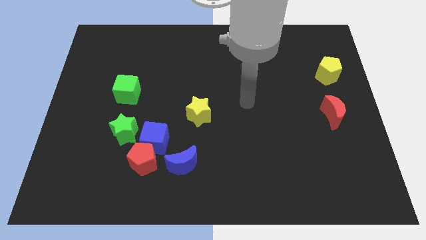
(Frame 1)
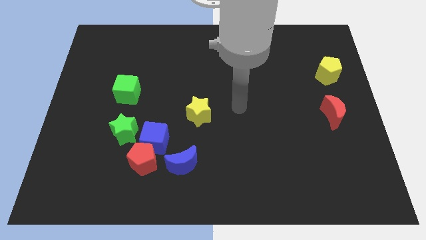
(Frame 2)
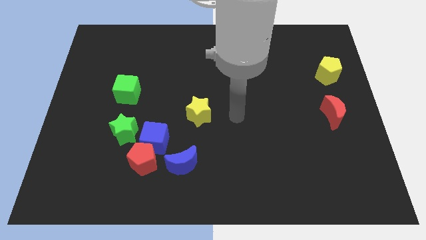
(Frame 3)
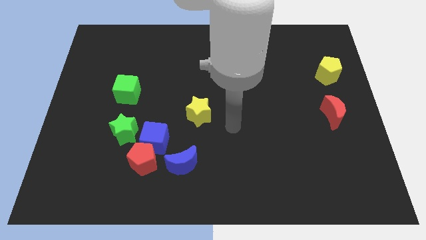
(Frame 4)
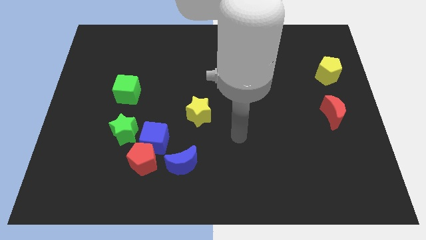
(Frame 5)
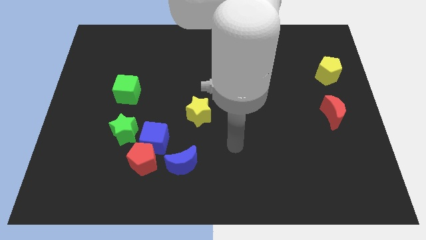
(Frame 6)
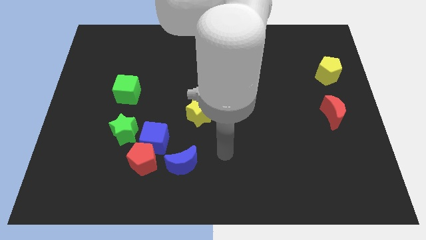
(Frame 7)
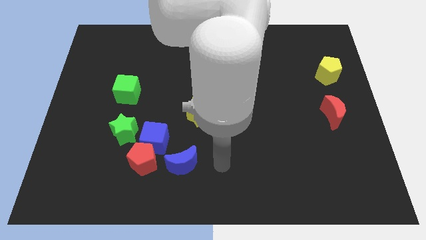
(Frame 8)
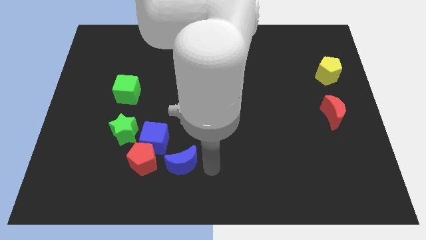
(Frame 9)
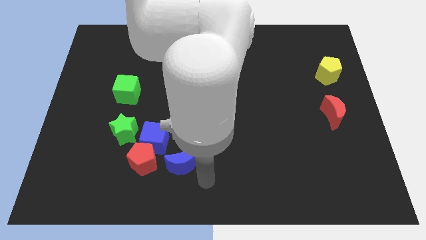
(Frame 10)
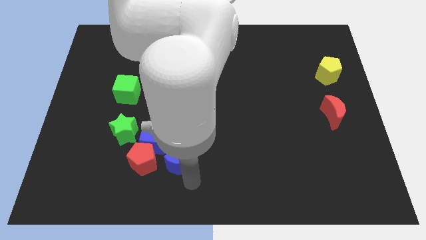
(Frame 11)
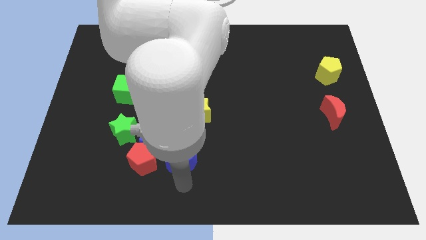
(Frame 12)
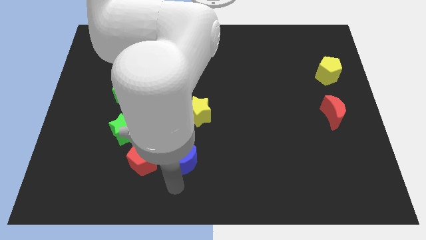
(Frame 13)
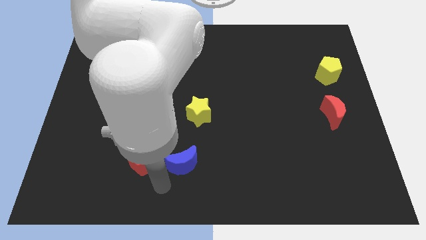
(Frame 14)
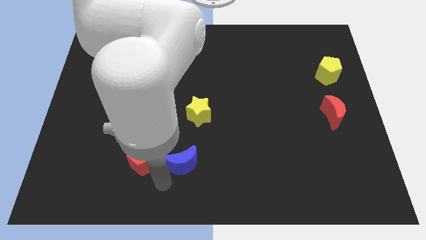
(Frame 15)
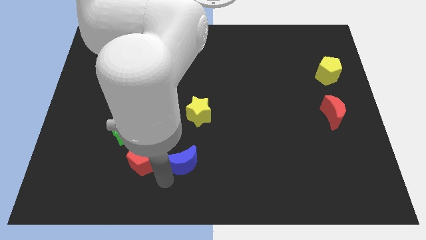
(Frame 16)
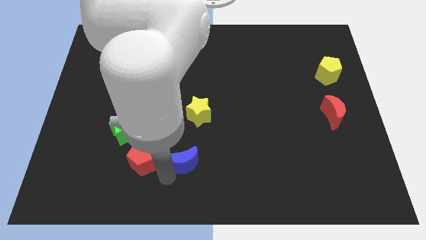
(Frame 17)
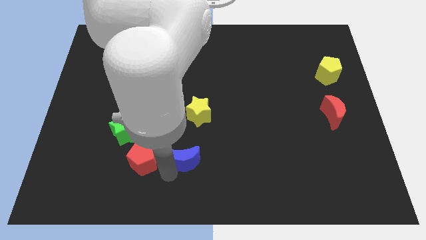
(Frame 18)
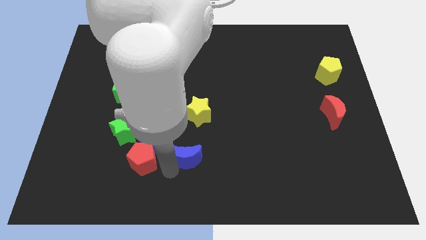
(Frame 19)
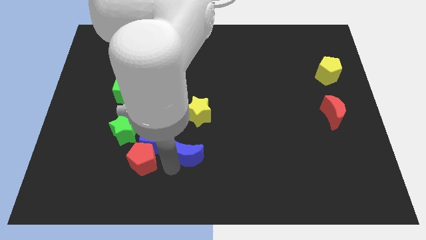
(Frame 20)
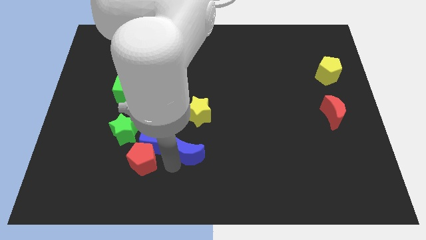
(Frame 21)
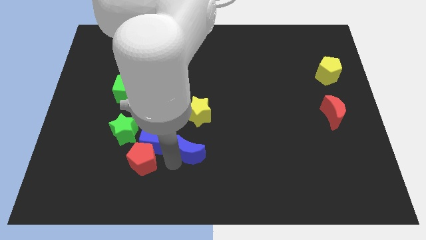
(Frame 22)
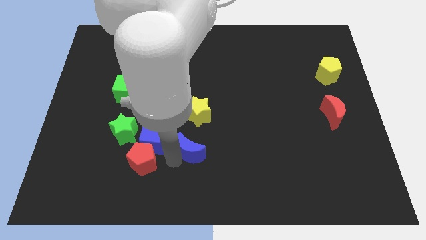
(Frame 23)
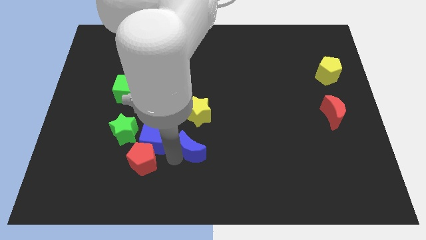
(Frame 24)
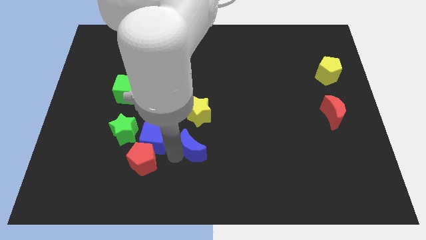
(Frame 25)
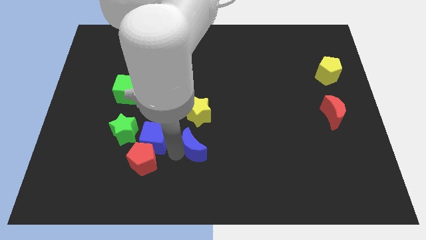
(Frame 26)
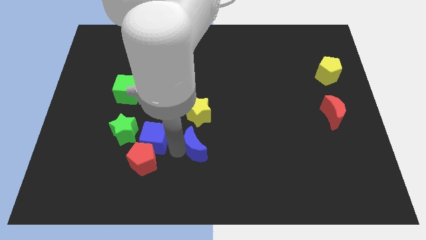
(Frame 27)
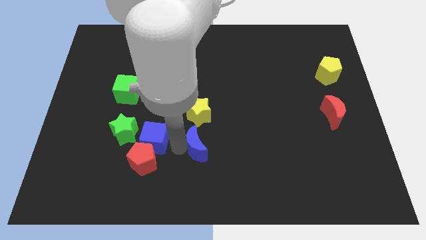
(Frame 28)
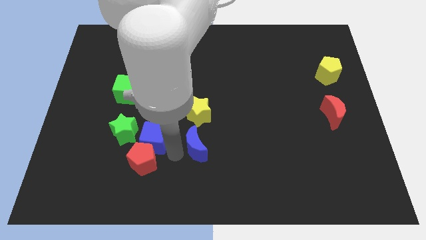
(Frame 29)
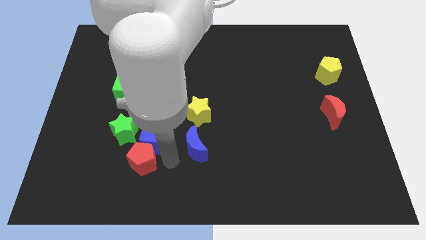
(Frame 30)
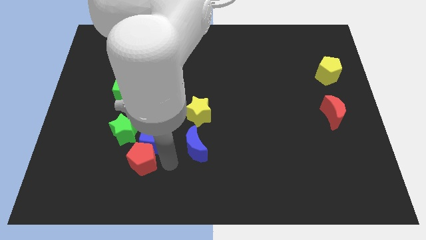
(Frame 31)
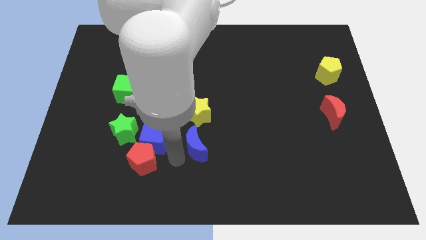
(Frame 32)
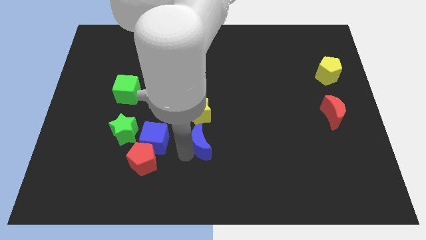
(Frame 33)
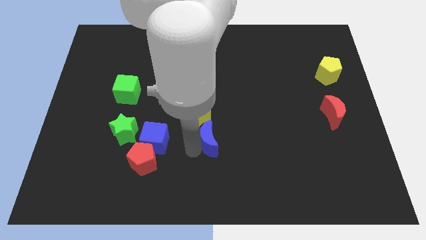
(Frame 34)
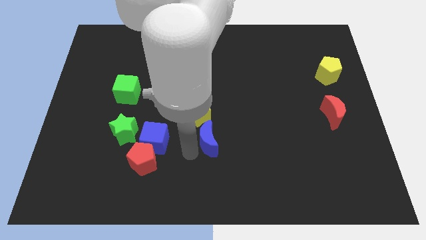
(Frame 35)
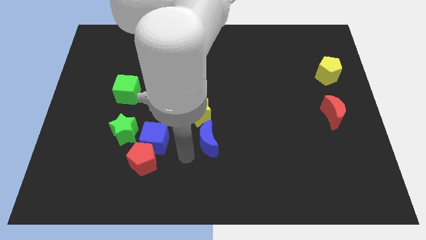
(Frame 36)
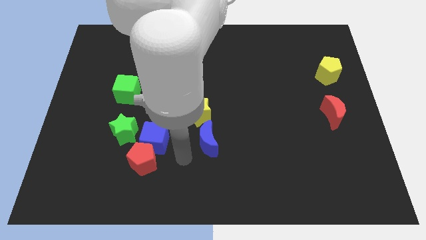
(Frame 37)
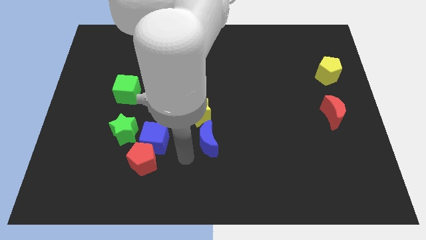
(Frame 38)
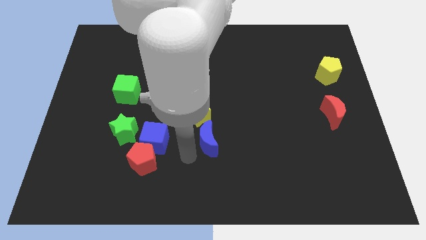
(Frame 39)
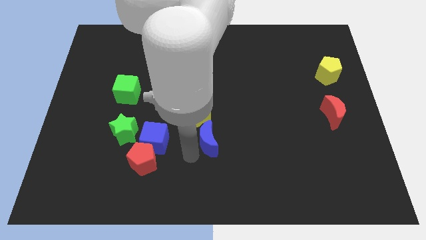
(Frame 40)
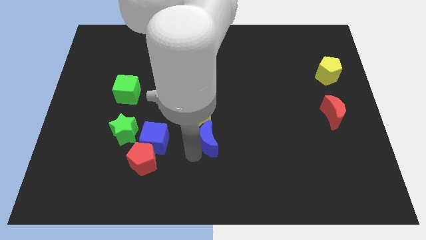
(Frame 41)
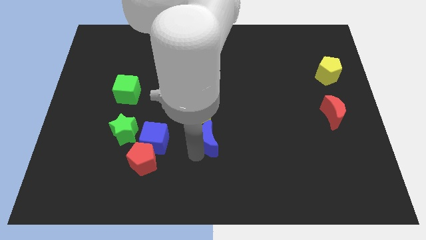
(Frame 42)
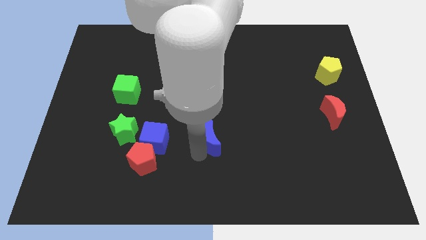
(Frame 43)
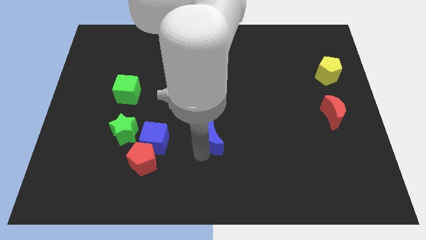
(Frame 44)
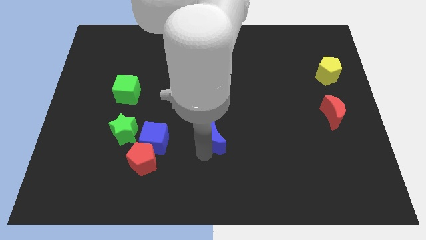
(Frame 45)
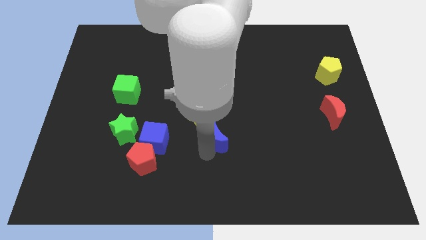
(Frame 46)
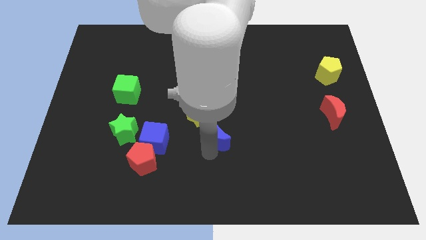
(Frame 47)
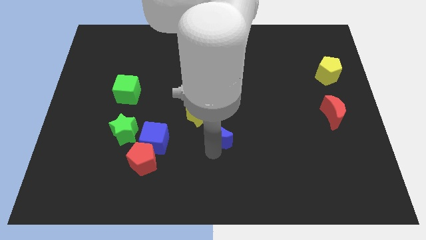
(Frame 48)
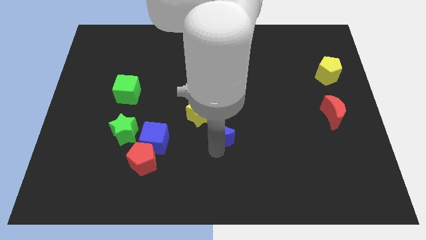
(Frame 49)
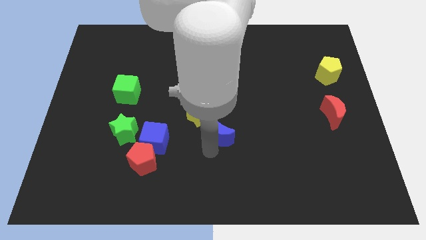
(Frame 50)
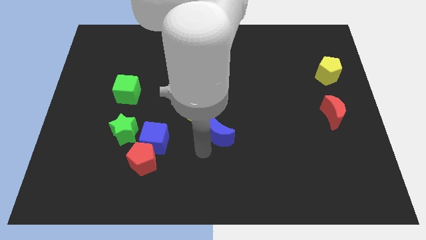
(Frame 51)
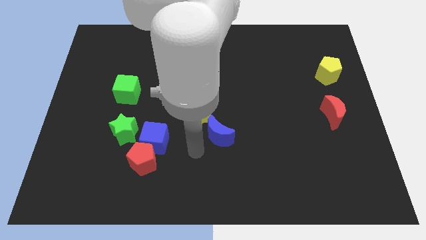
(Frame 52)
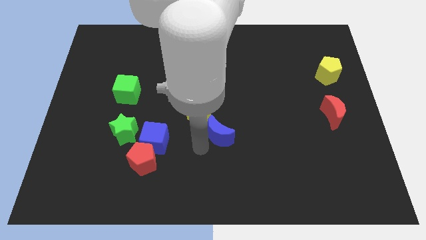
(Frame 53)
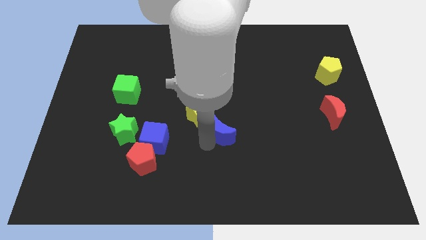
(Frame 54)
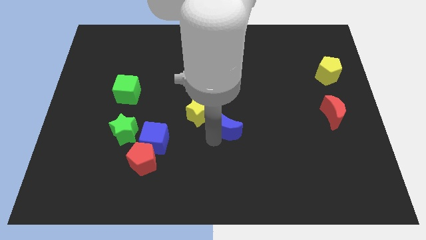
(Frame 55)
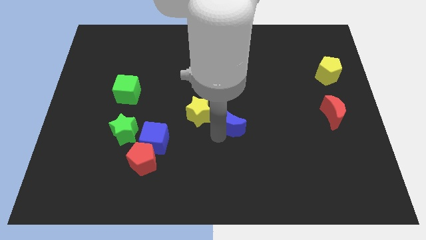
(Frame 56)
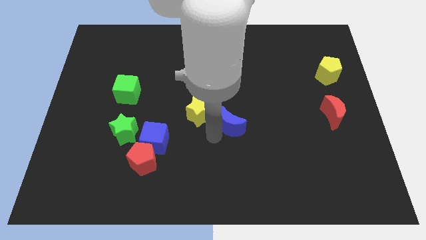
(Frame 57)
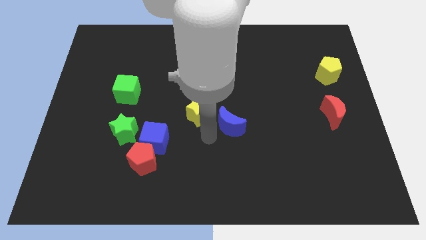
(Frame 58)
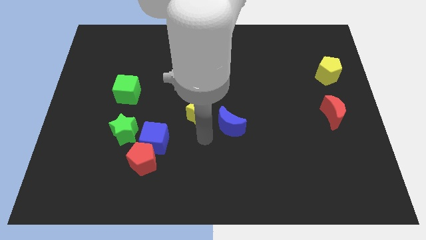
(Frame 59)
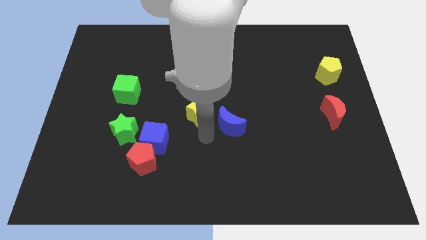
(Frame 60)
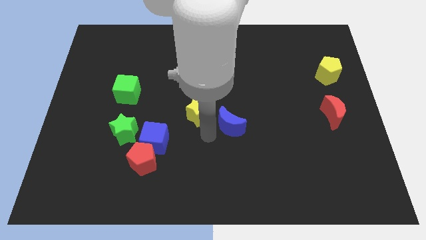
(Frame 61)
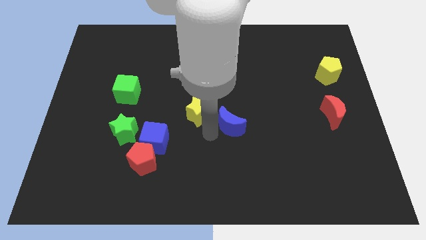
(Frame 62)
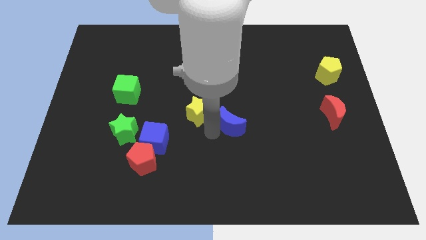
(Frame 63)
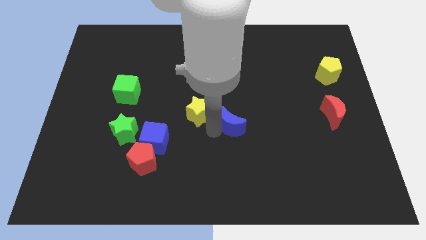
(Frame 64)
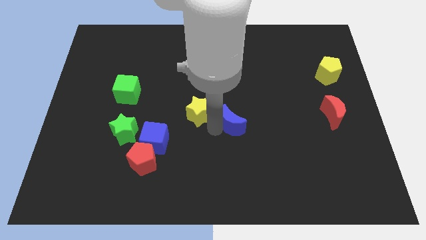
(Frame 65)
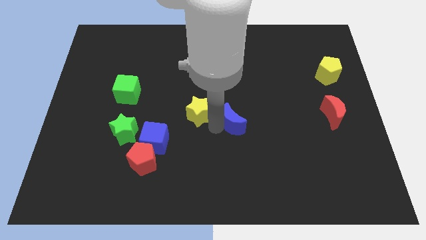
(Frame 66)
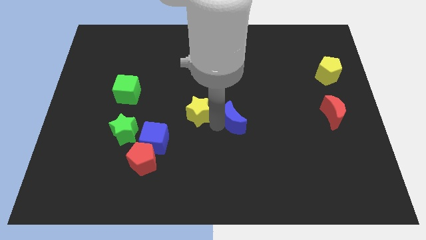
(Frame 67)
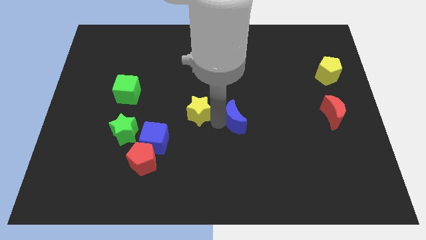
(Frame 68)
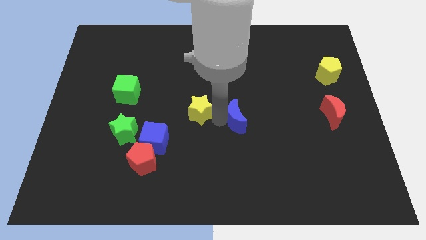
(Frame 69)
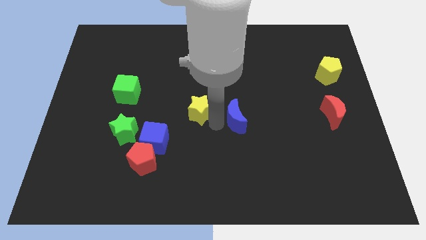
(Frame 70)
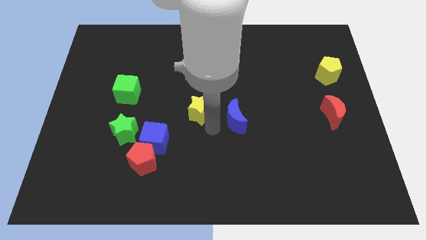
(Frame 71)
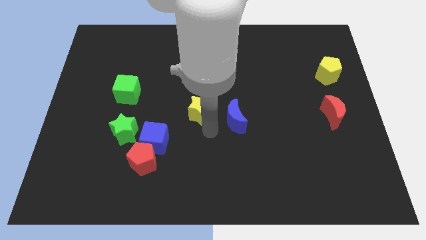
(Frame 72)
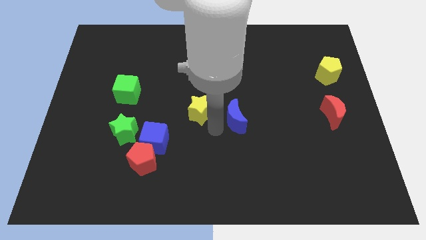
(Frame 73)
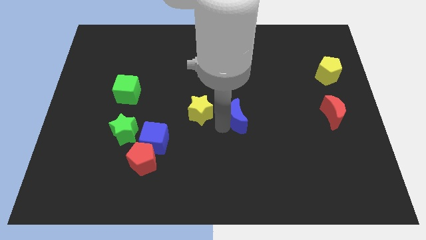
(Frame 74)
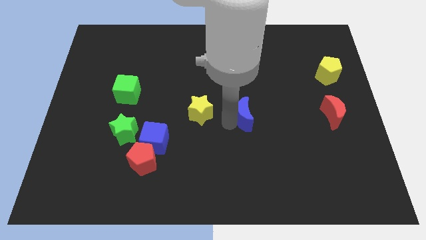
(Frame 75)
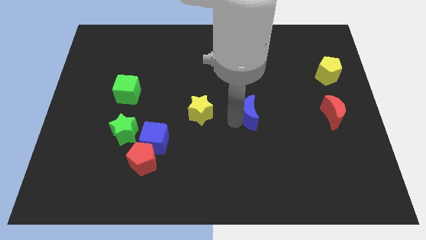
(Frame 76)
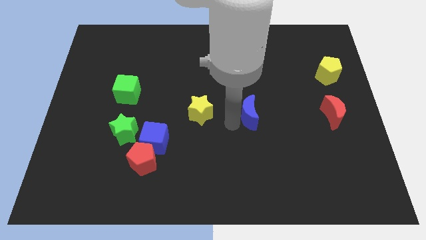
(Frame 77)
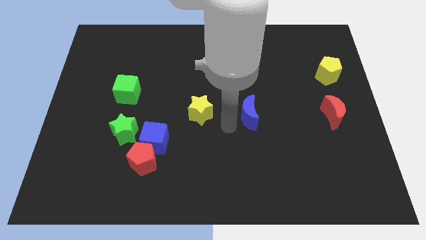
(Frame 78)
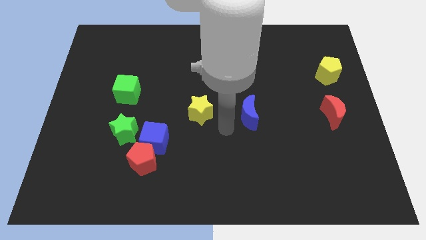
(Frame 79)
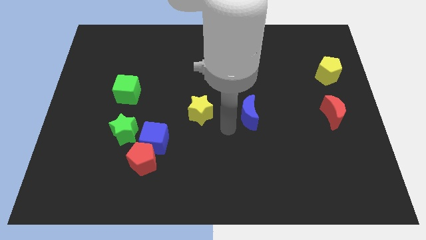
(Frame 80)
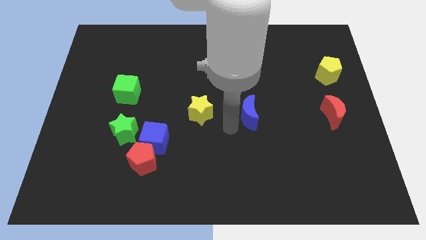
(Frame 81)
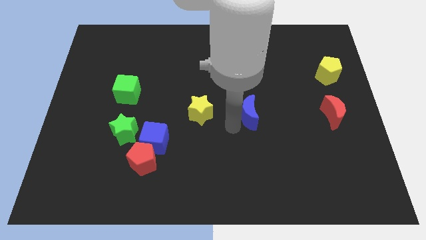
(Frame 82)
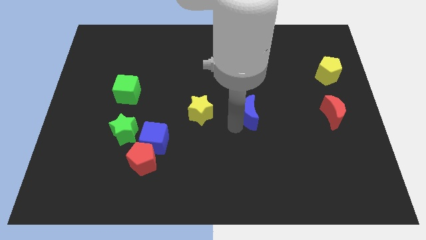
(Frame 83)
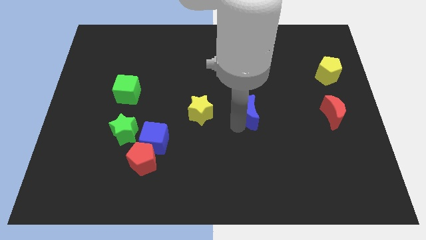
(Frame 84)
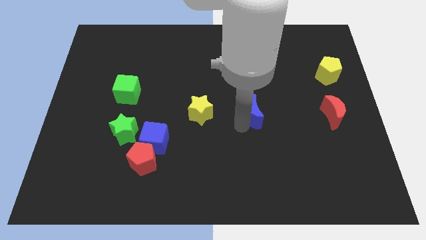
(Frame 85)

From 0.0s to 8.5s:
slide the blue moon upwards and right diagonally
